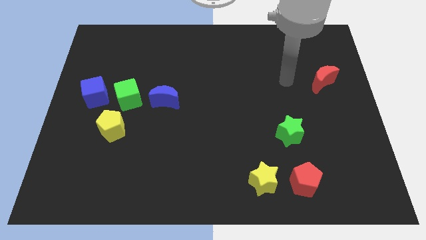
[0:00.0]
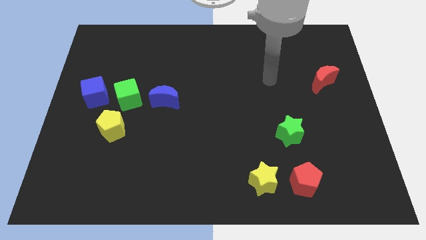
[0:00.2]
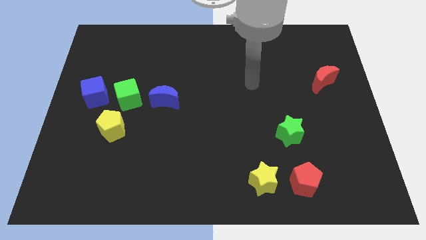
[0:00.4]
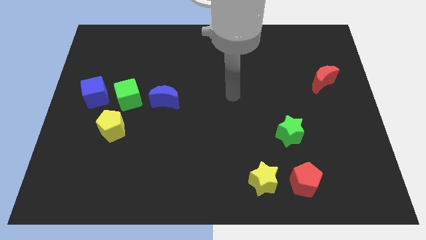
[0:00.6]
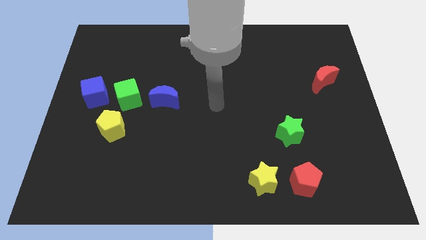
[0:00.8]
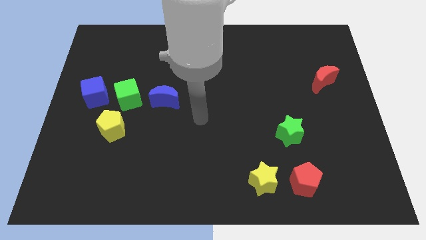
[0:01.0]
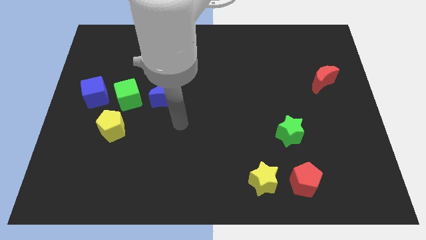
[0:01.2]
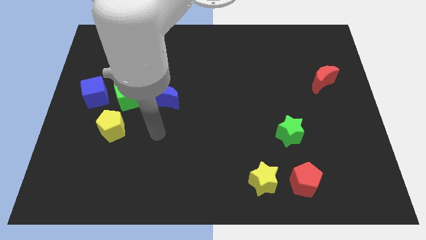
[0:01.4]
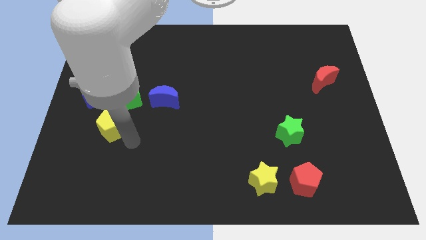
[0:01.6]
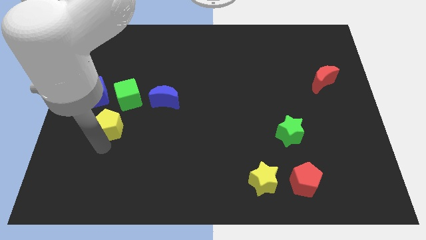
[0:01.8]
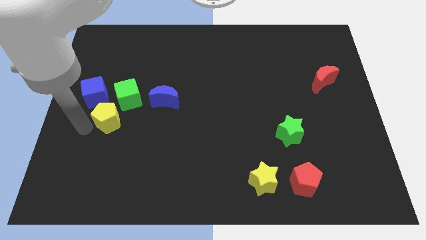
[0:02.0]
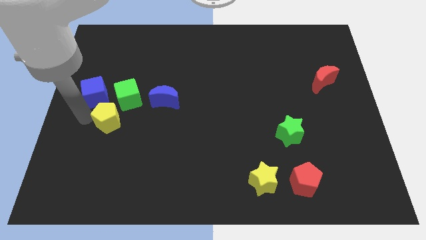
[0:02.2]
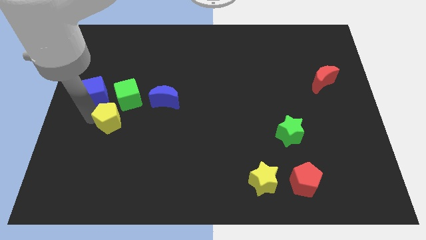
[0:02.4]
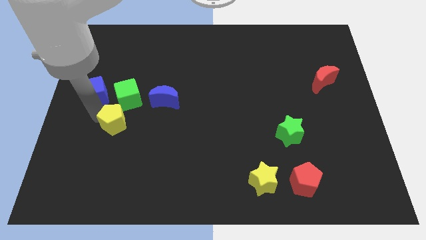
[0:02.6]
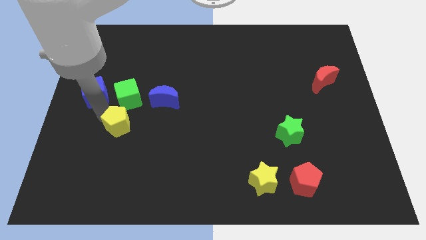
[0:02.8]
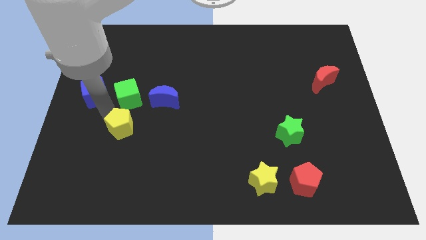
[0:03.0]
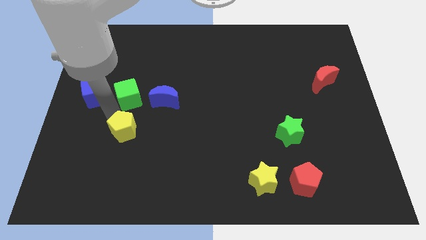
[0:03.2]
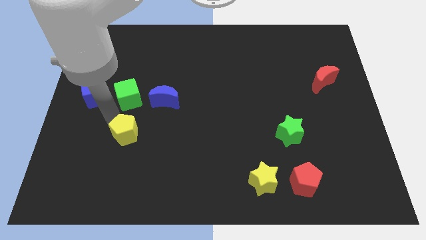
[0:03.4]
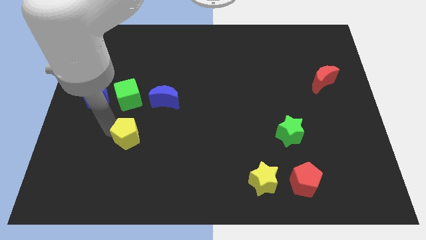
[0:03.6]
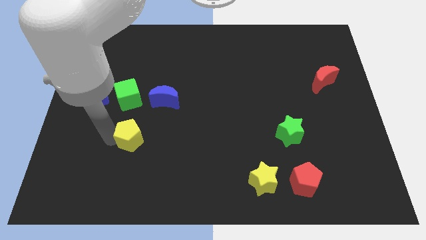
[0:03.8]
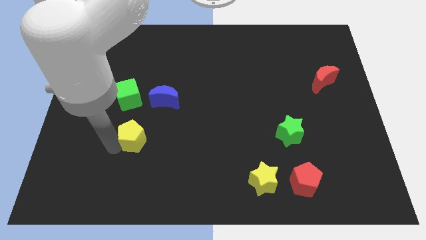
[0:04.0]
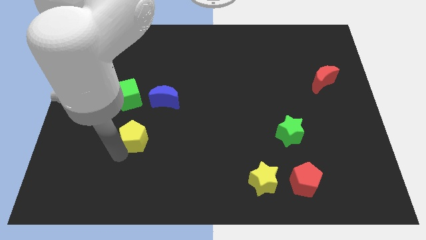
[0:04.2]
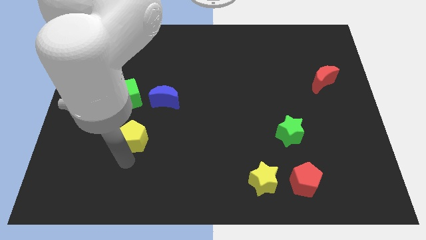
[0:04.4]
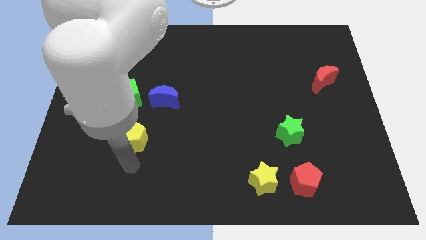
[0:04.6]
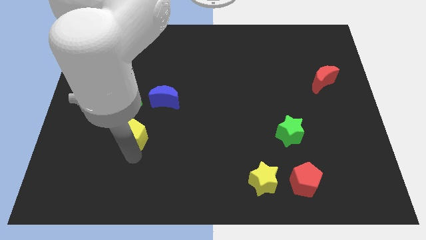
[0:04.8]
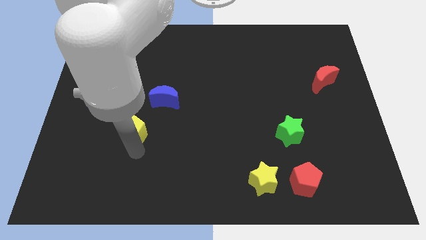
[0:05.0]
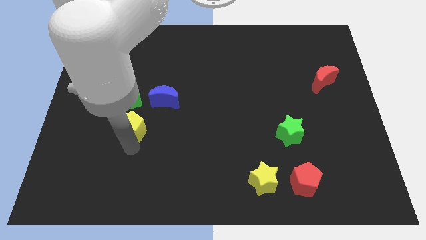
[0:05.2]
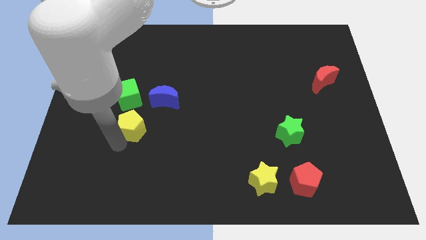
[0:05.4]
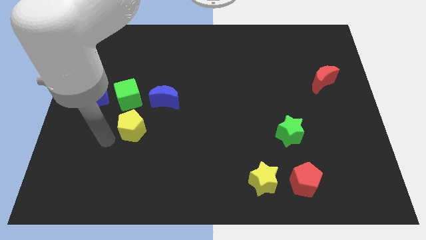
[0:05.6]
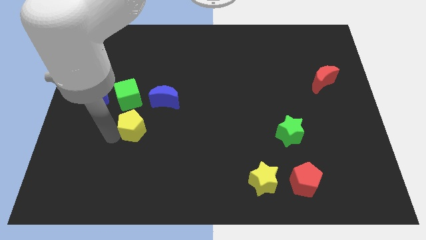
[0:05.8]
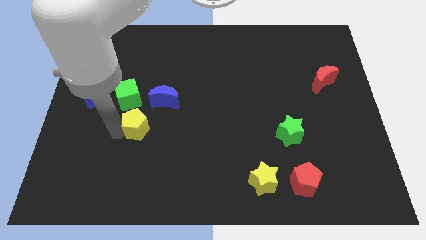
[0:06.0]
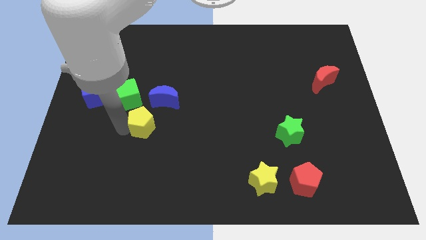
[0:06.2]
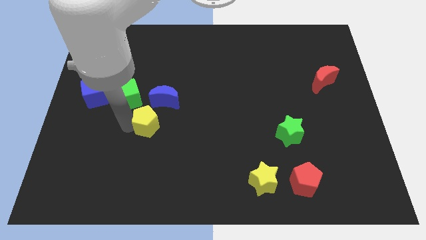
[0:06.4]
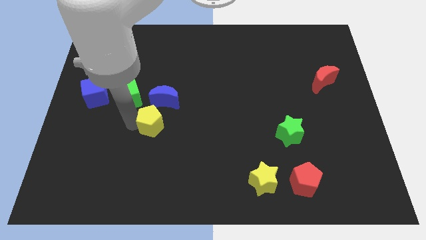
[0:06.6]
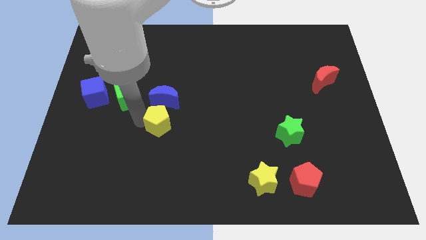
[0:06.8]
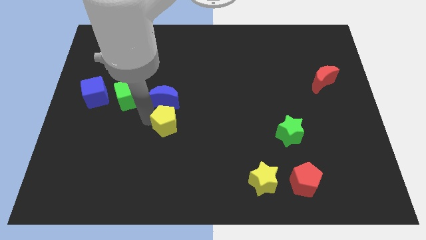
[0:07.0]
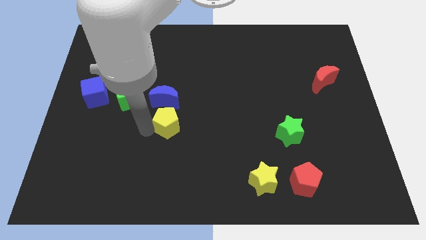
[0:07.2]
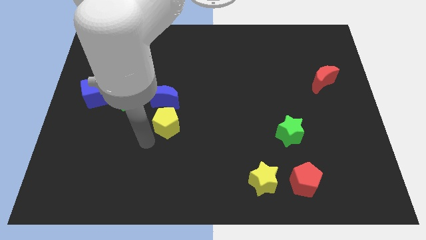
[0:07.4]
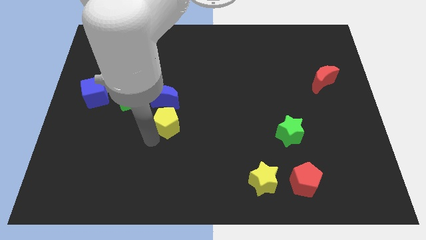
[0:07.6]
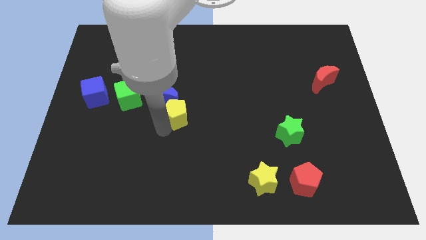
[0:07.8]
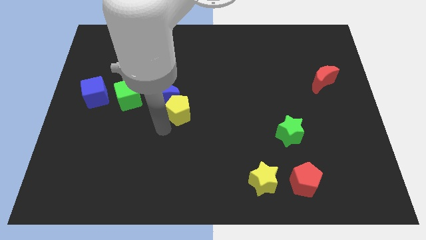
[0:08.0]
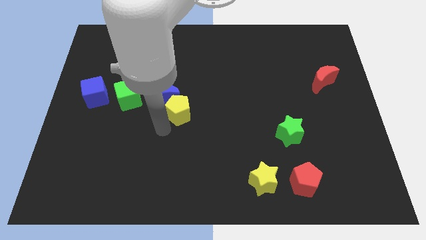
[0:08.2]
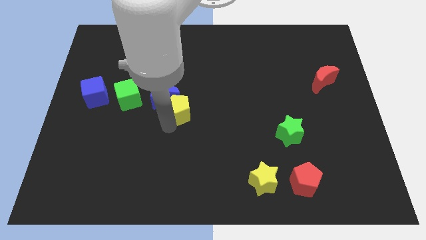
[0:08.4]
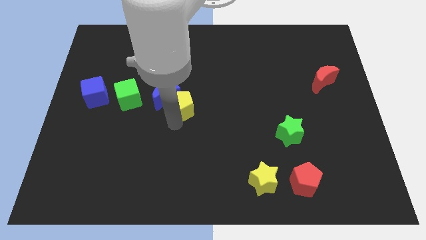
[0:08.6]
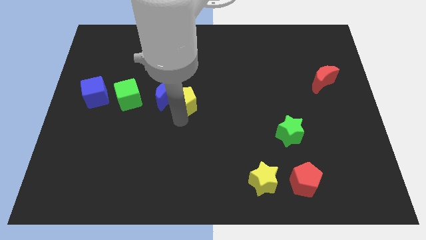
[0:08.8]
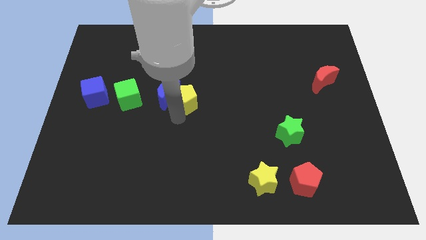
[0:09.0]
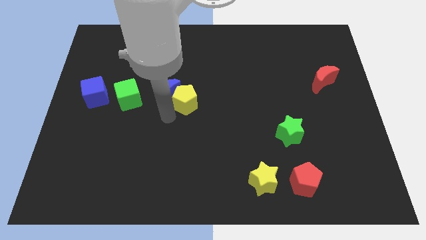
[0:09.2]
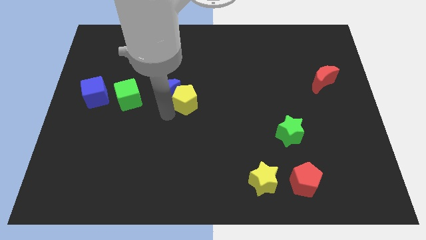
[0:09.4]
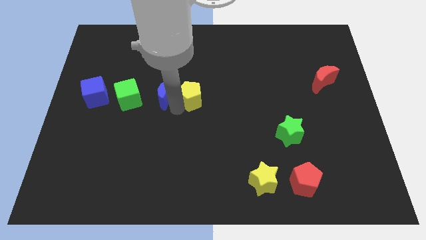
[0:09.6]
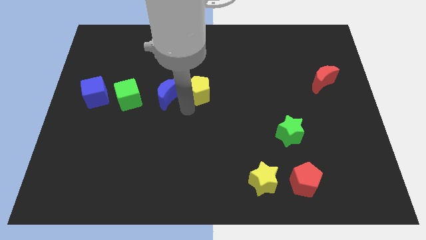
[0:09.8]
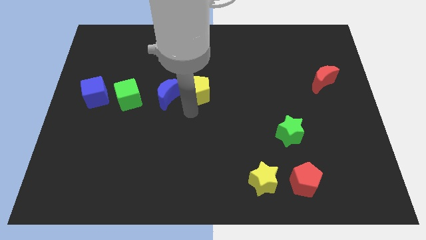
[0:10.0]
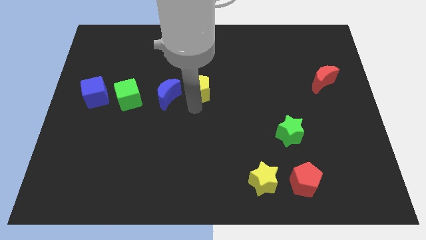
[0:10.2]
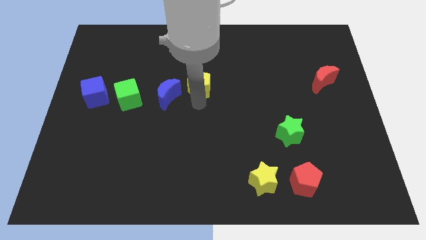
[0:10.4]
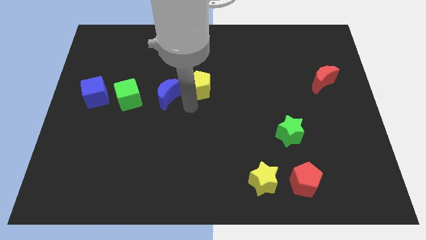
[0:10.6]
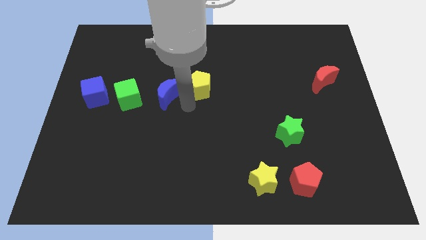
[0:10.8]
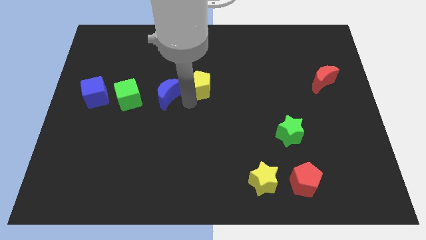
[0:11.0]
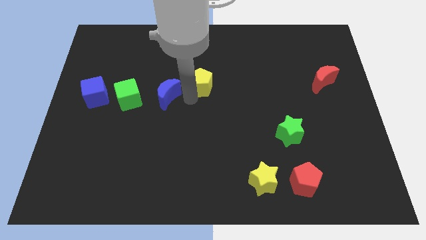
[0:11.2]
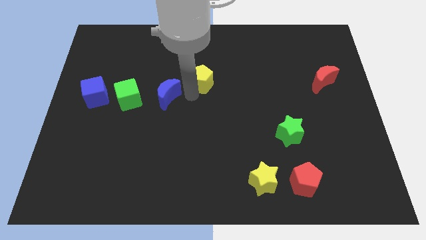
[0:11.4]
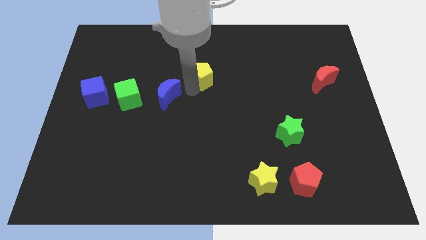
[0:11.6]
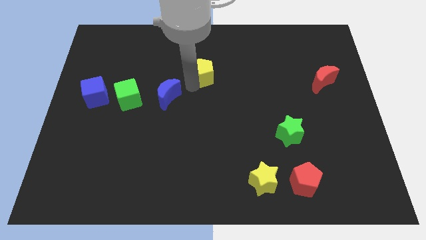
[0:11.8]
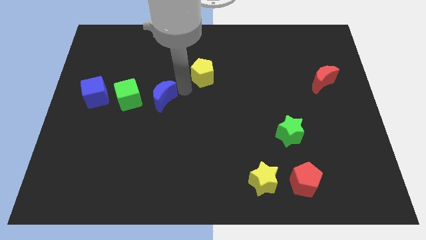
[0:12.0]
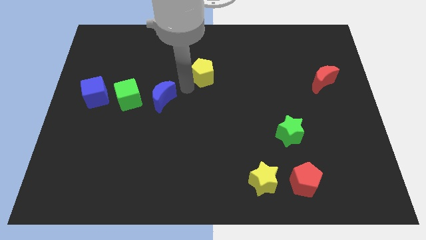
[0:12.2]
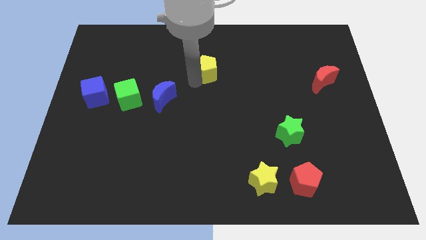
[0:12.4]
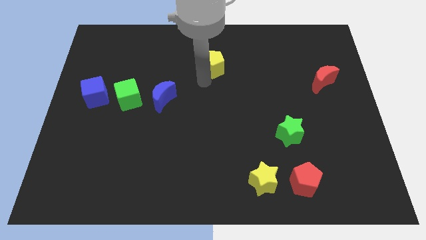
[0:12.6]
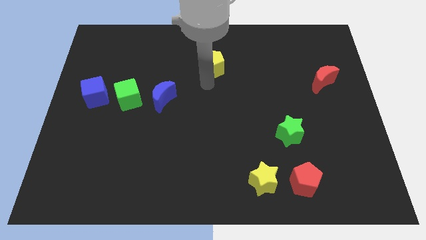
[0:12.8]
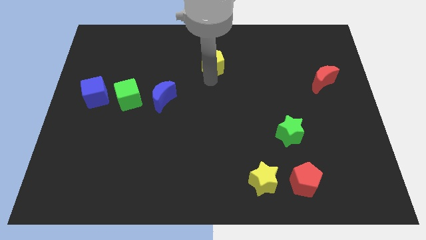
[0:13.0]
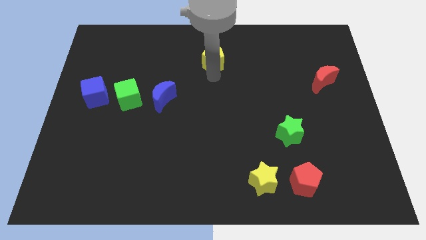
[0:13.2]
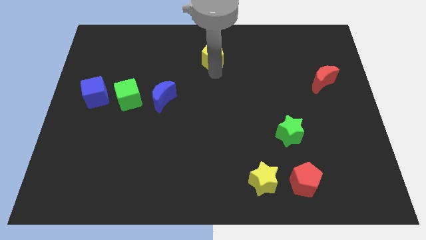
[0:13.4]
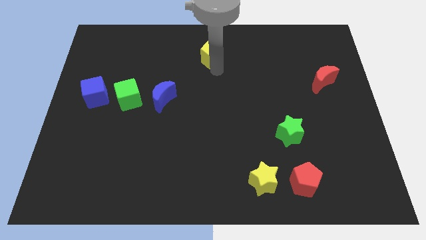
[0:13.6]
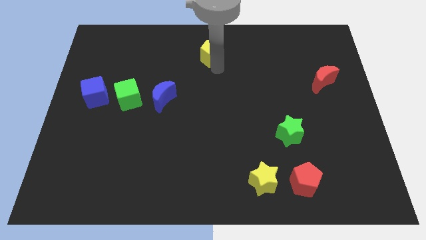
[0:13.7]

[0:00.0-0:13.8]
put the yellow pentagon to the top
